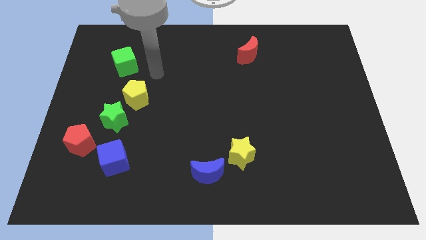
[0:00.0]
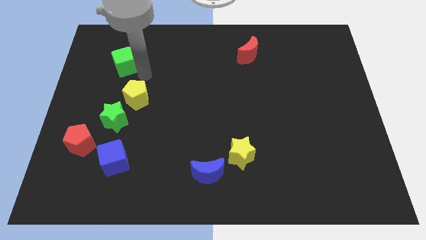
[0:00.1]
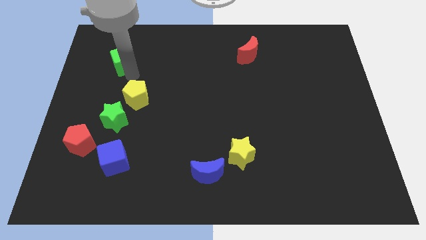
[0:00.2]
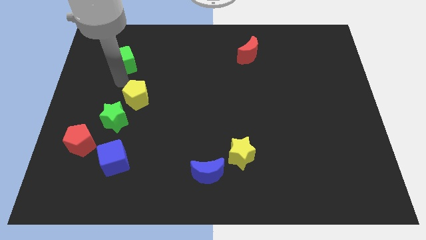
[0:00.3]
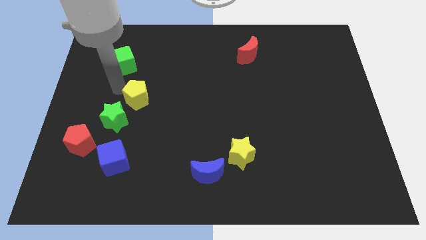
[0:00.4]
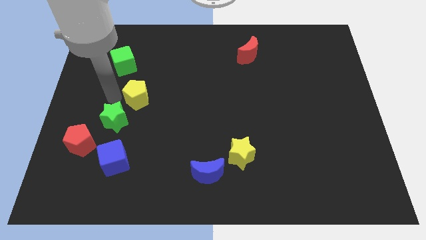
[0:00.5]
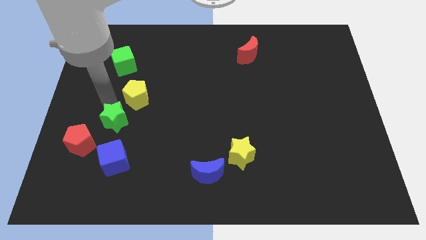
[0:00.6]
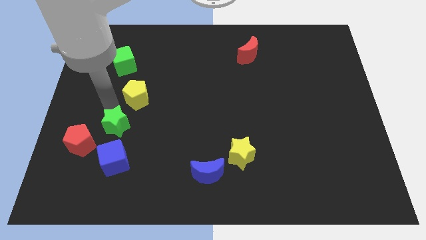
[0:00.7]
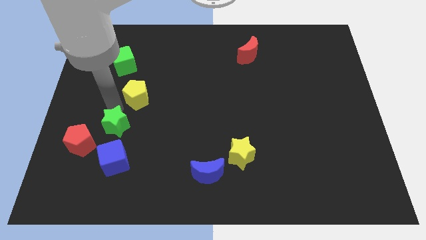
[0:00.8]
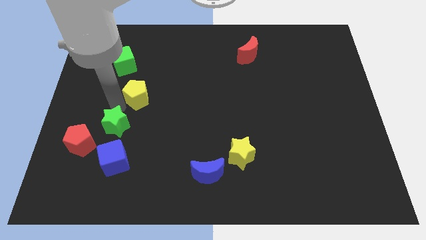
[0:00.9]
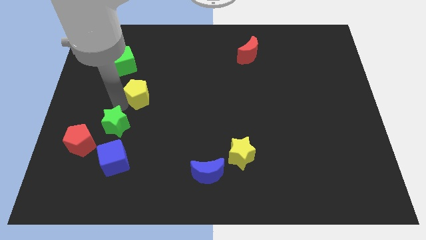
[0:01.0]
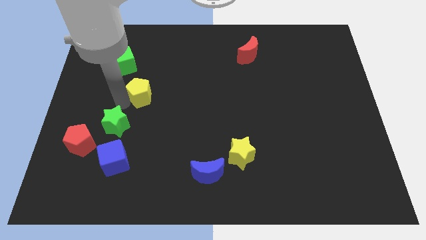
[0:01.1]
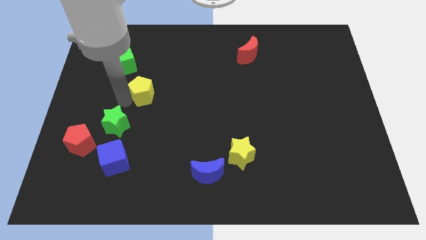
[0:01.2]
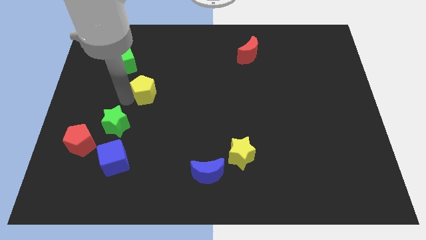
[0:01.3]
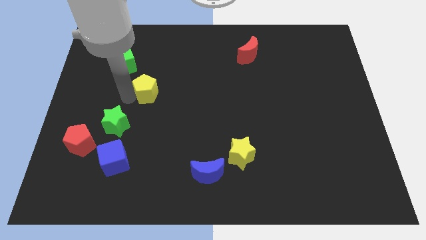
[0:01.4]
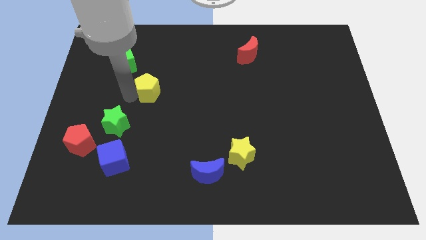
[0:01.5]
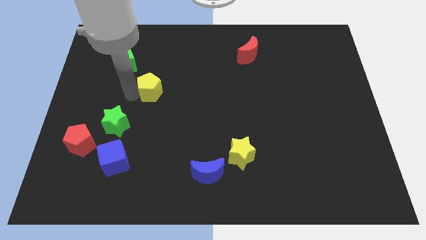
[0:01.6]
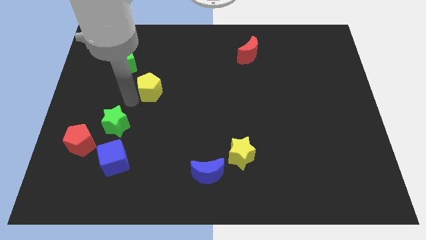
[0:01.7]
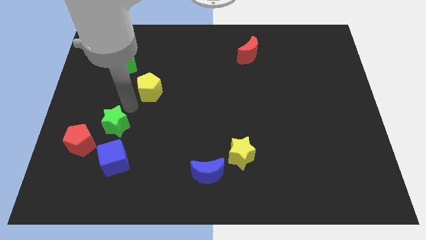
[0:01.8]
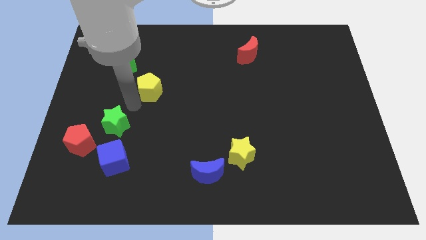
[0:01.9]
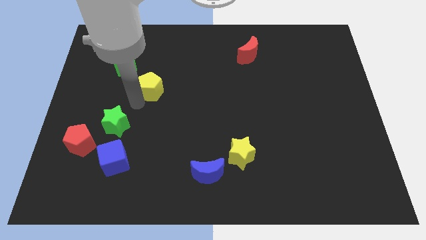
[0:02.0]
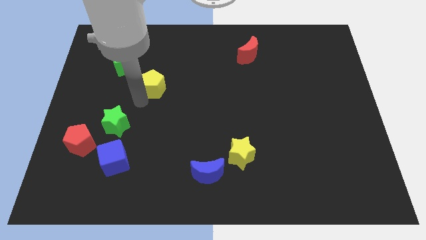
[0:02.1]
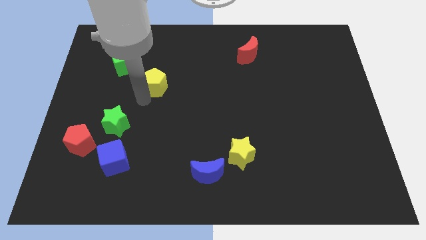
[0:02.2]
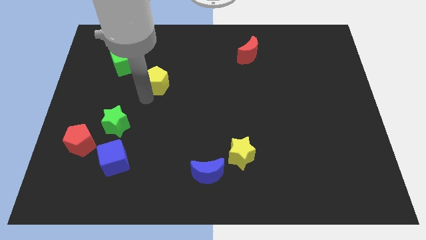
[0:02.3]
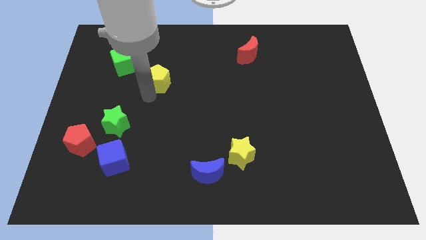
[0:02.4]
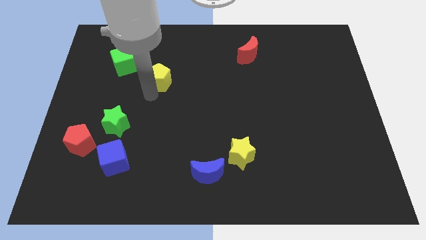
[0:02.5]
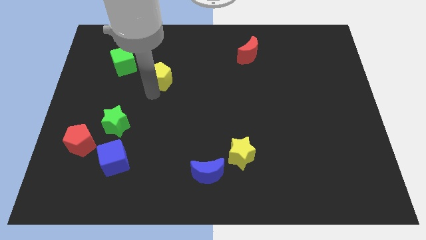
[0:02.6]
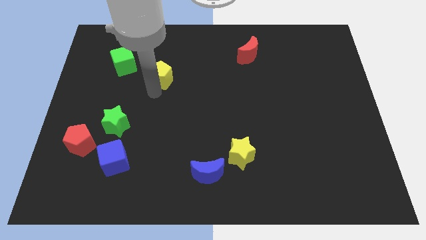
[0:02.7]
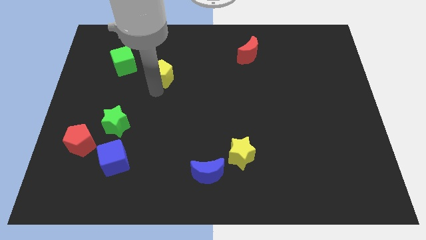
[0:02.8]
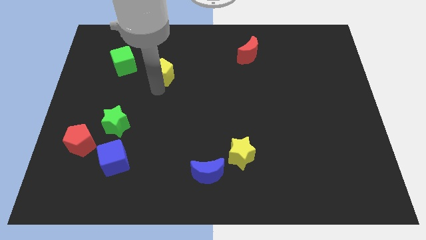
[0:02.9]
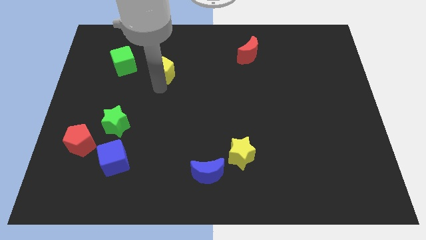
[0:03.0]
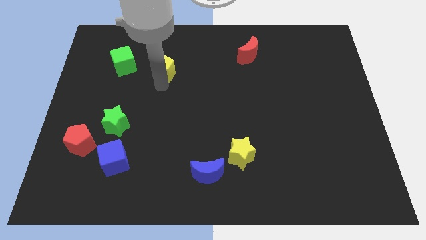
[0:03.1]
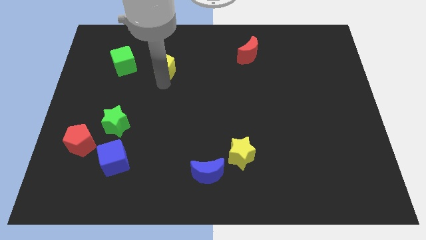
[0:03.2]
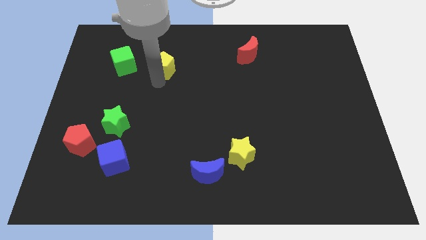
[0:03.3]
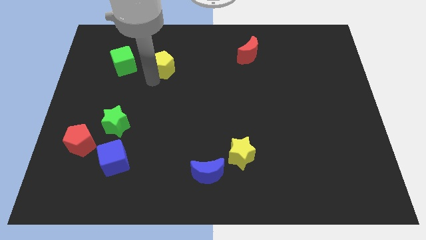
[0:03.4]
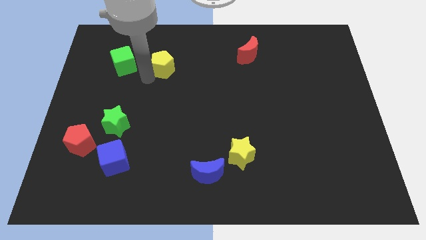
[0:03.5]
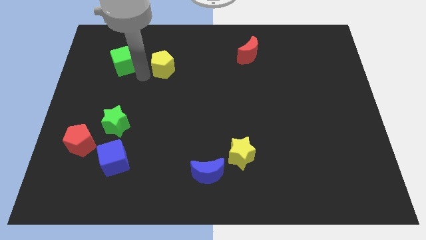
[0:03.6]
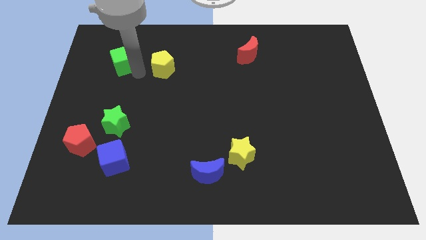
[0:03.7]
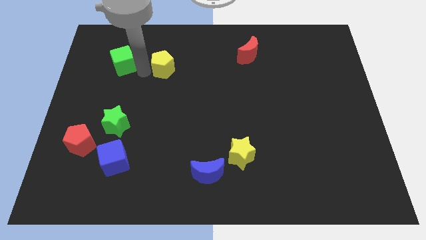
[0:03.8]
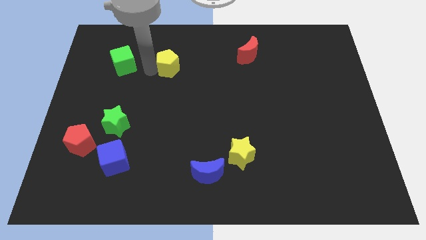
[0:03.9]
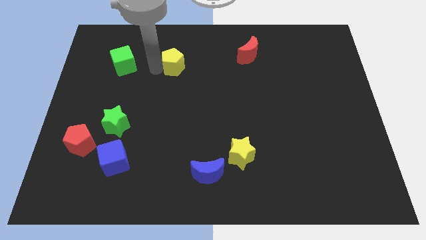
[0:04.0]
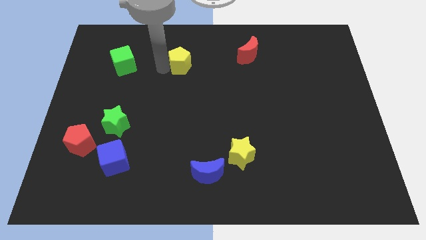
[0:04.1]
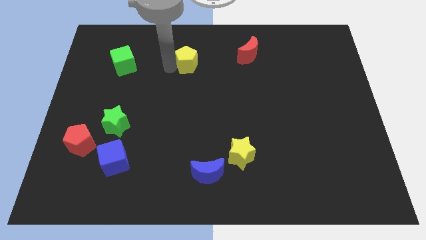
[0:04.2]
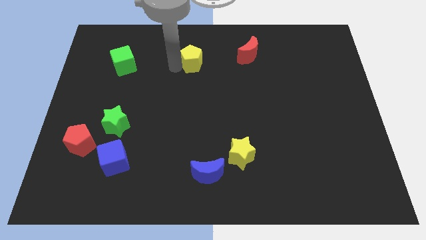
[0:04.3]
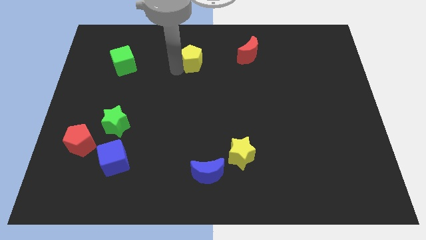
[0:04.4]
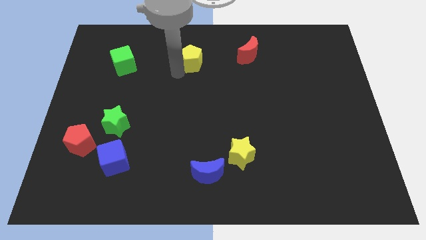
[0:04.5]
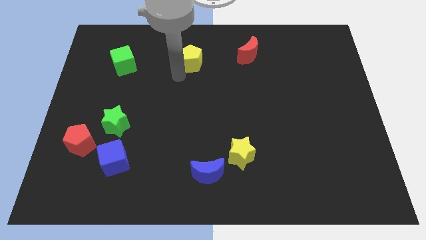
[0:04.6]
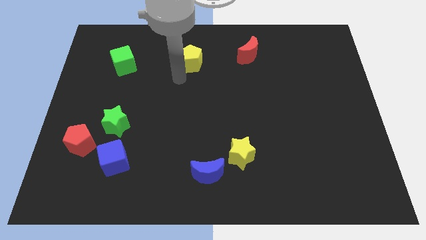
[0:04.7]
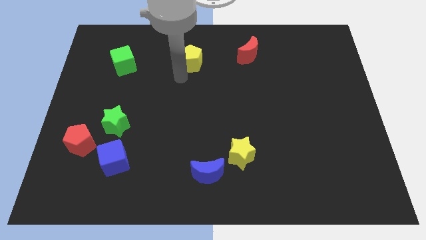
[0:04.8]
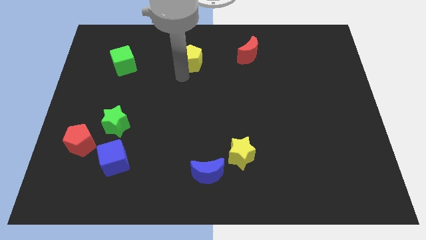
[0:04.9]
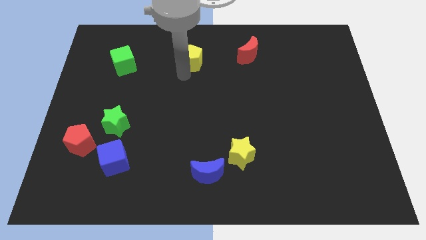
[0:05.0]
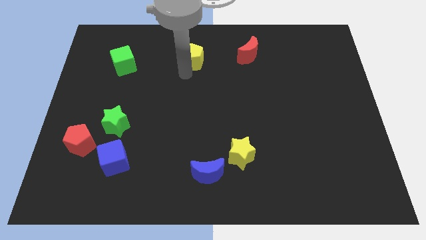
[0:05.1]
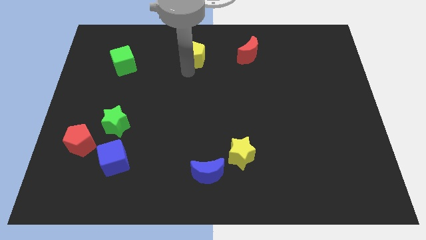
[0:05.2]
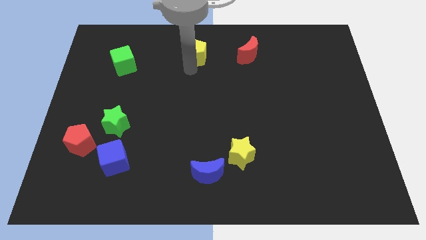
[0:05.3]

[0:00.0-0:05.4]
put the yellow pentagon to the top

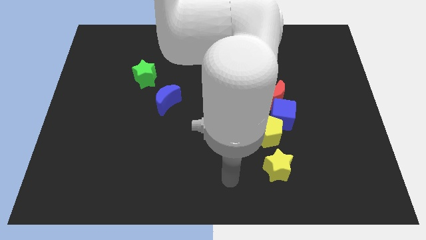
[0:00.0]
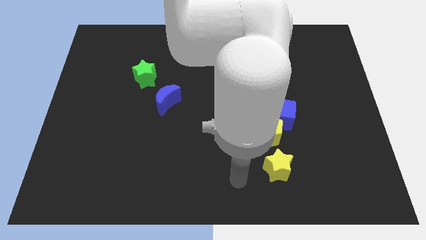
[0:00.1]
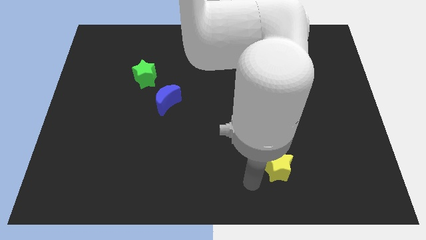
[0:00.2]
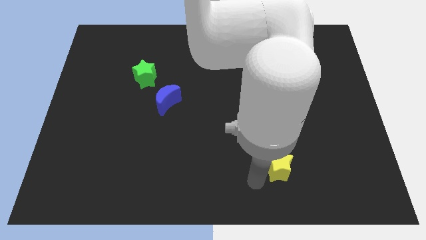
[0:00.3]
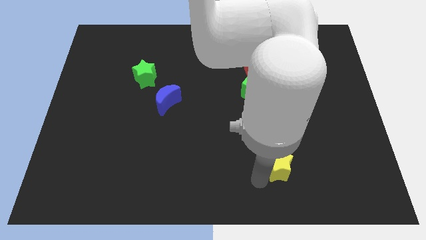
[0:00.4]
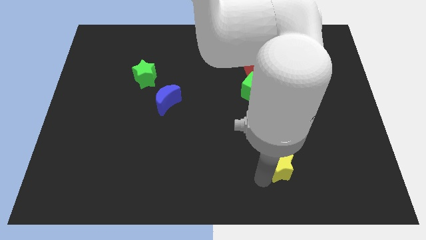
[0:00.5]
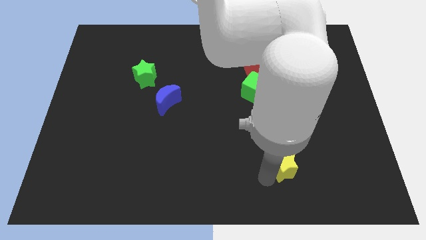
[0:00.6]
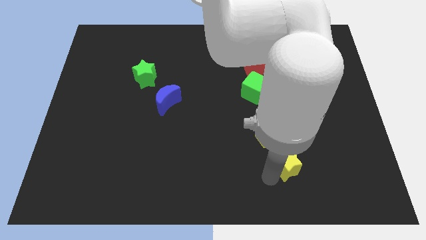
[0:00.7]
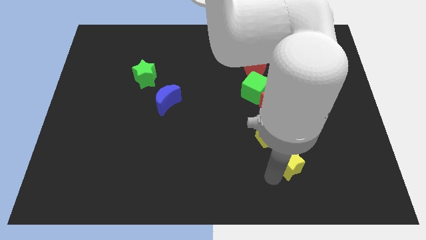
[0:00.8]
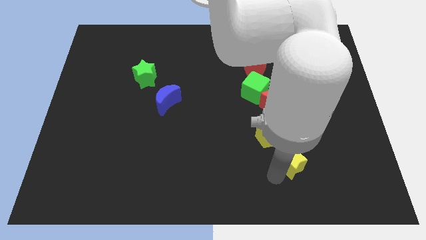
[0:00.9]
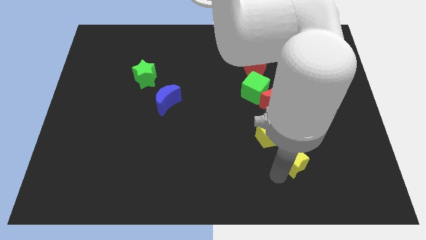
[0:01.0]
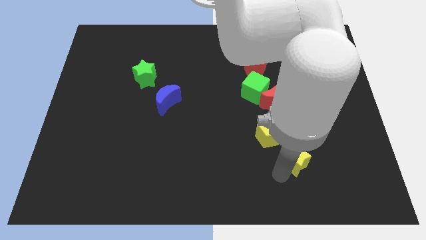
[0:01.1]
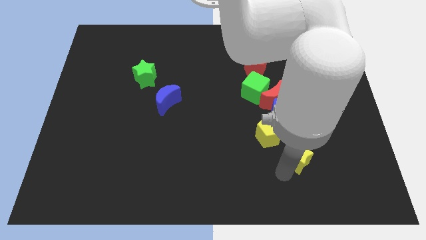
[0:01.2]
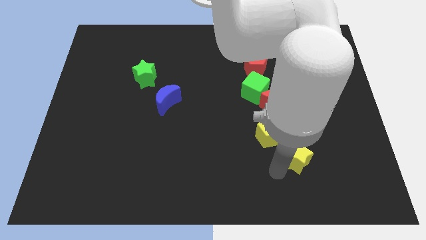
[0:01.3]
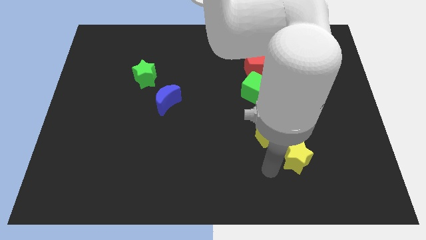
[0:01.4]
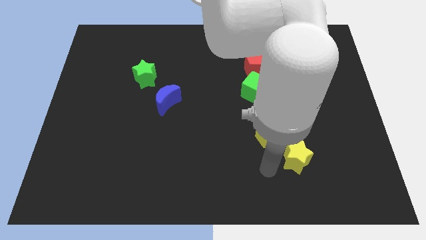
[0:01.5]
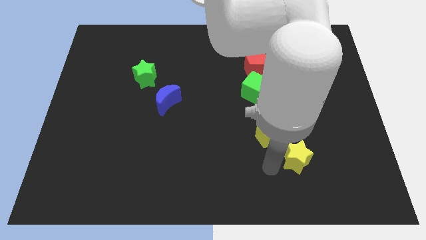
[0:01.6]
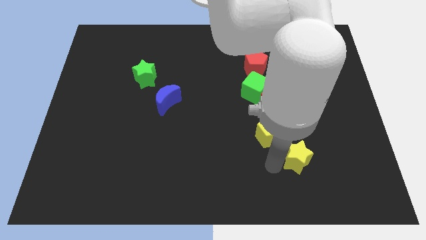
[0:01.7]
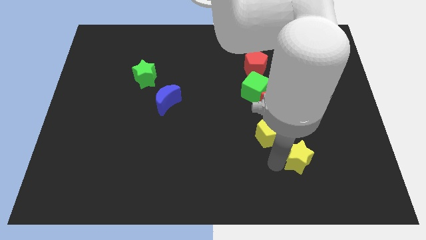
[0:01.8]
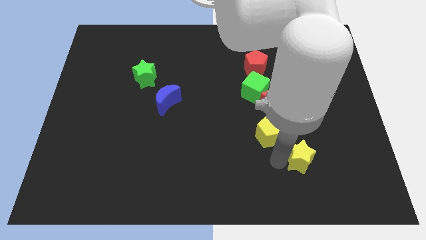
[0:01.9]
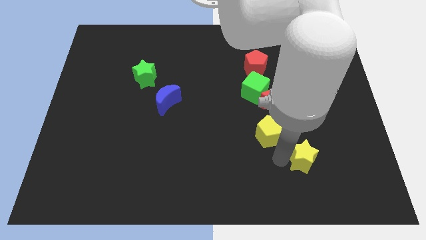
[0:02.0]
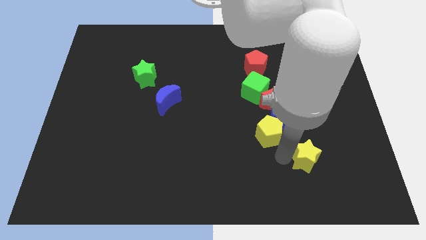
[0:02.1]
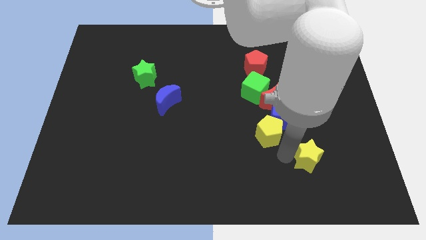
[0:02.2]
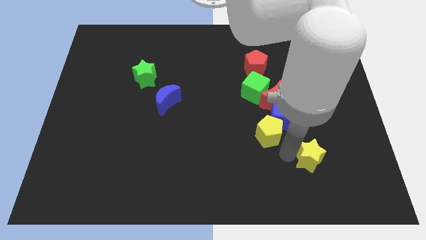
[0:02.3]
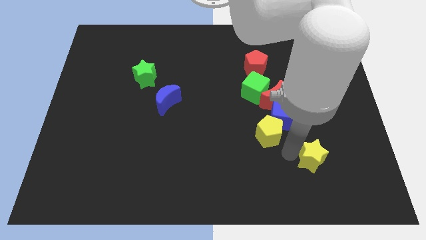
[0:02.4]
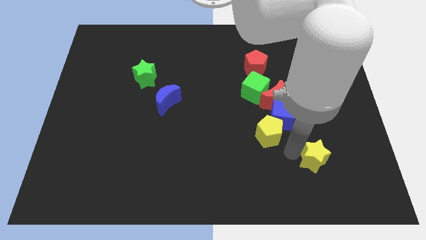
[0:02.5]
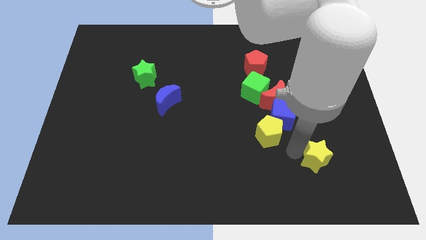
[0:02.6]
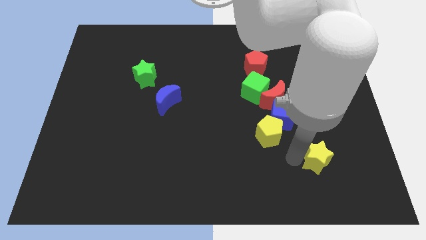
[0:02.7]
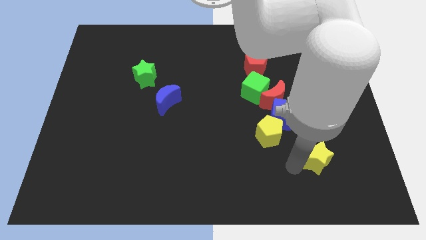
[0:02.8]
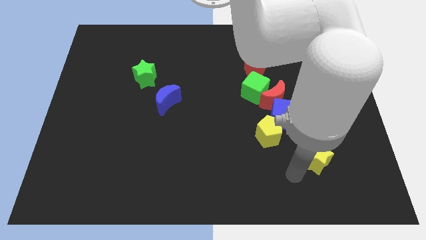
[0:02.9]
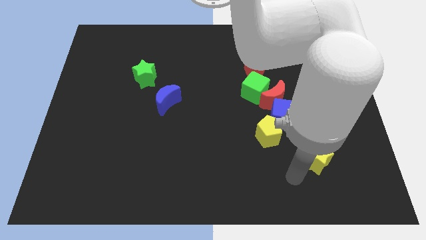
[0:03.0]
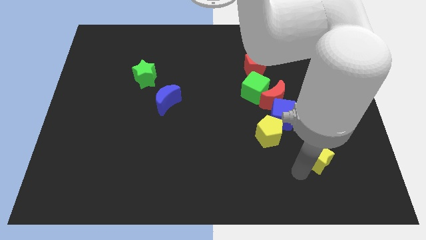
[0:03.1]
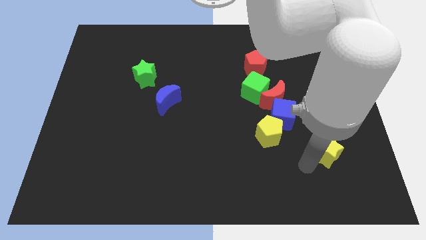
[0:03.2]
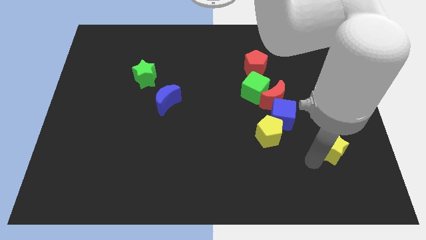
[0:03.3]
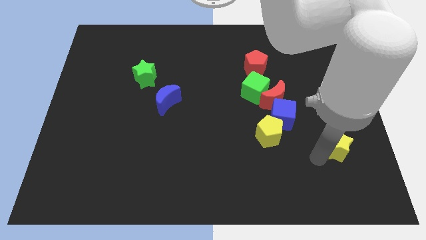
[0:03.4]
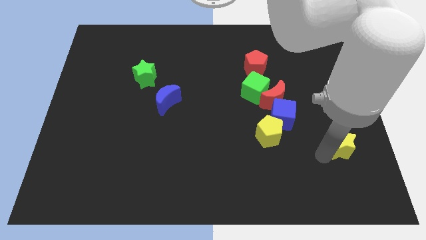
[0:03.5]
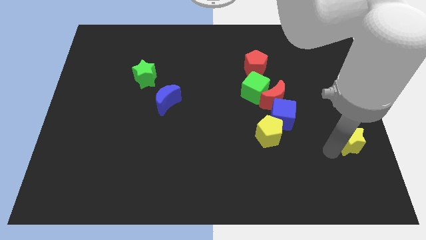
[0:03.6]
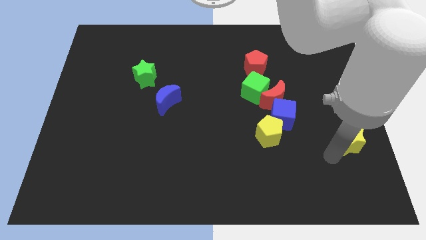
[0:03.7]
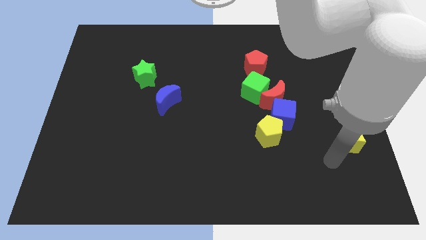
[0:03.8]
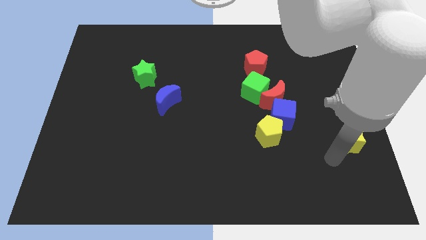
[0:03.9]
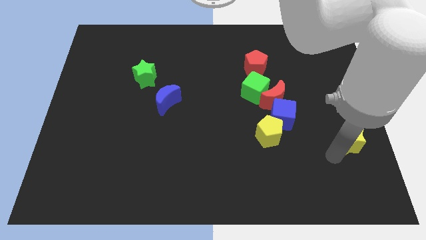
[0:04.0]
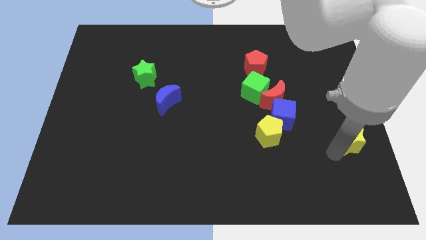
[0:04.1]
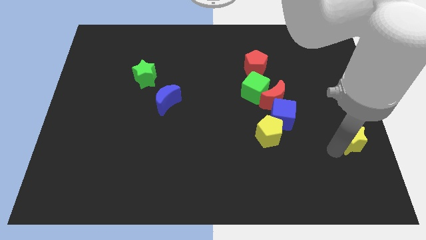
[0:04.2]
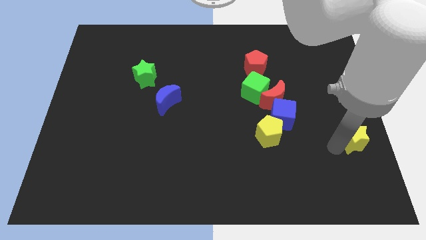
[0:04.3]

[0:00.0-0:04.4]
put the yellow star to the right side
